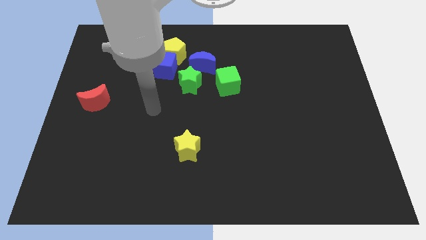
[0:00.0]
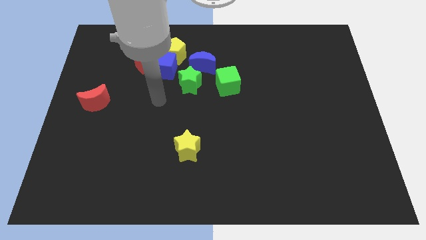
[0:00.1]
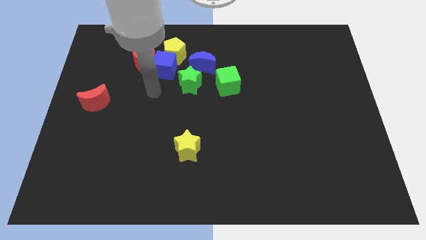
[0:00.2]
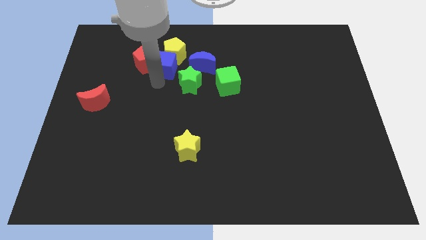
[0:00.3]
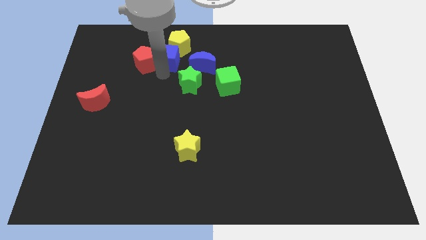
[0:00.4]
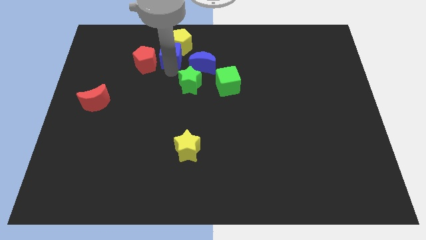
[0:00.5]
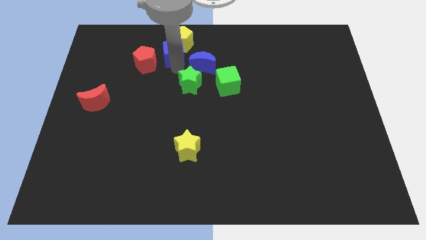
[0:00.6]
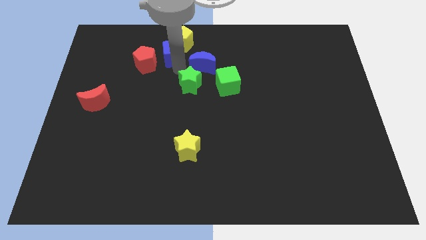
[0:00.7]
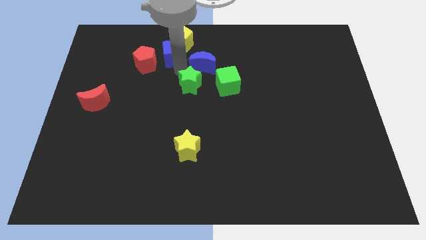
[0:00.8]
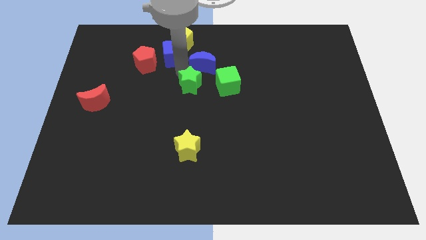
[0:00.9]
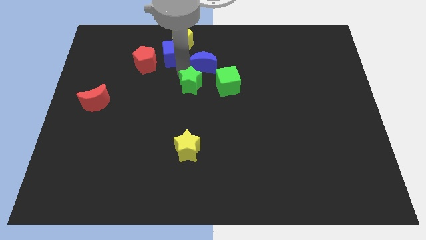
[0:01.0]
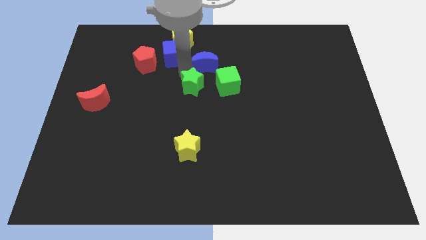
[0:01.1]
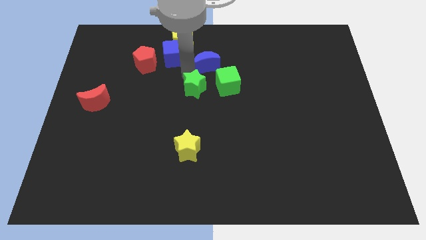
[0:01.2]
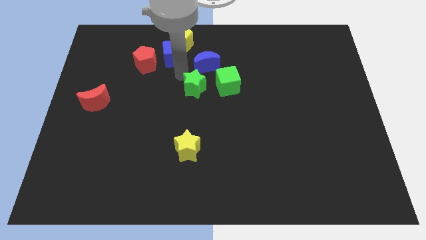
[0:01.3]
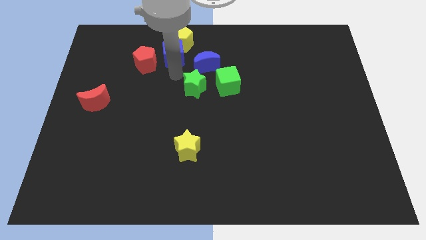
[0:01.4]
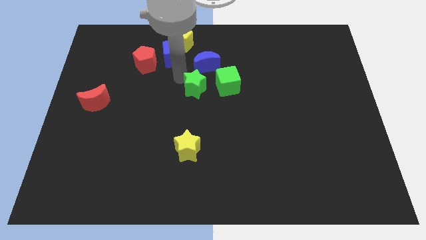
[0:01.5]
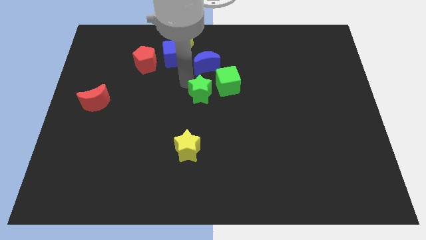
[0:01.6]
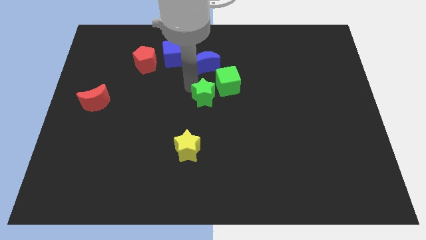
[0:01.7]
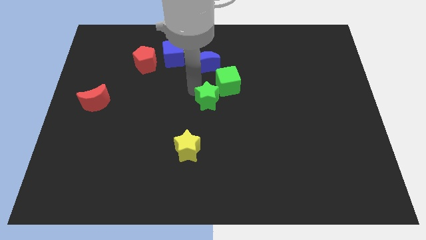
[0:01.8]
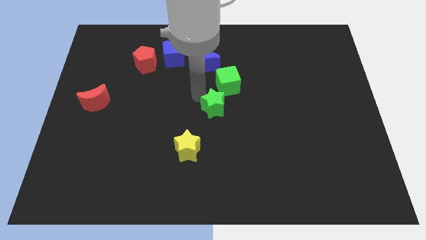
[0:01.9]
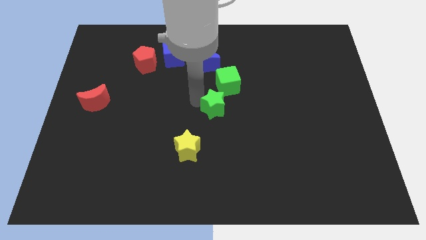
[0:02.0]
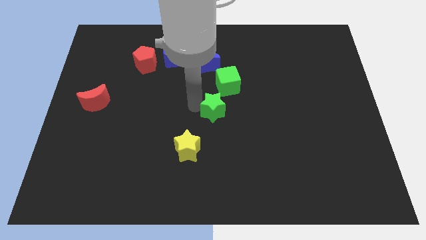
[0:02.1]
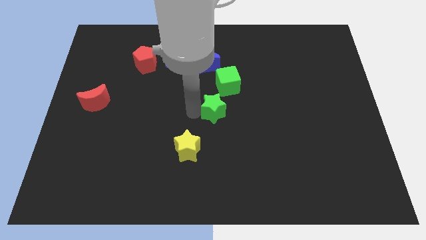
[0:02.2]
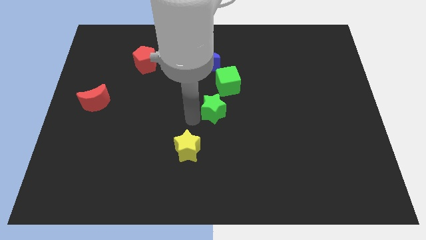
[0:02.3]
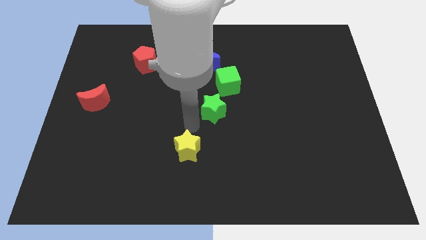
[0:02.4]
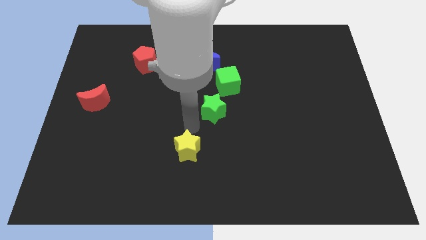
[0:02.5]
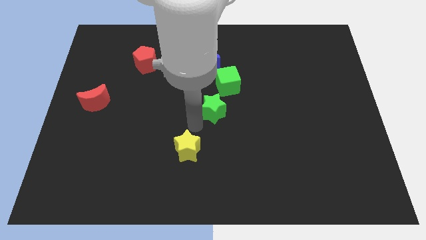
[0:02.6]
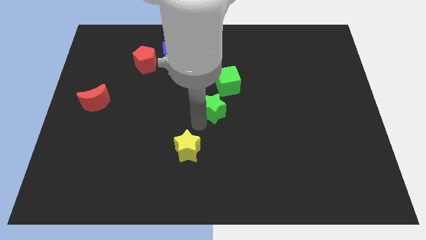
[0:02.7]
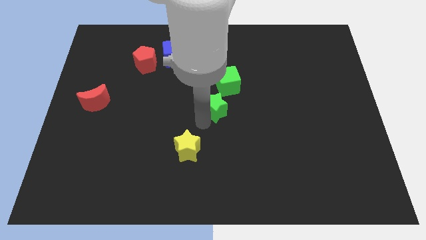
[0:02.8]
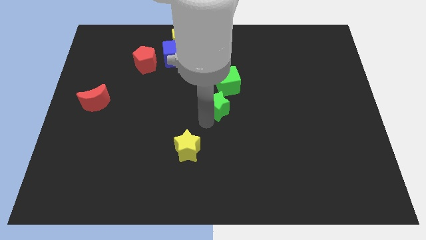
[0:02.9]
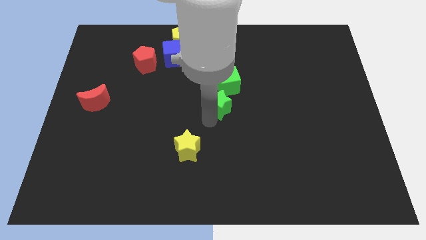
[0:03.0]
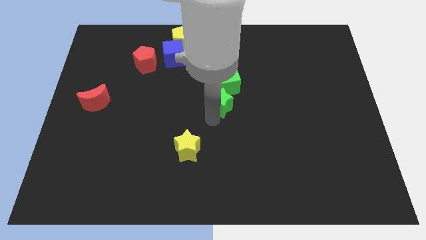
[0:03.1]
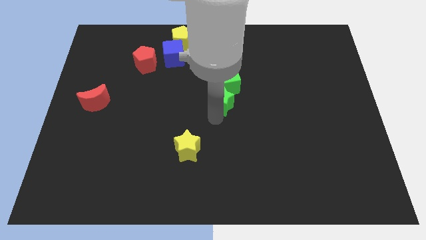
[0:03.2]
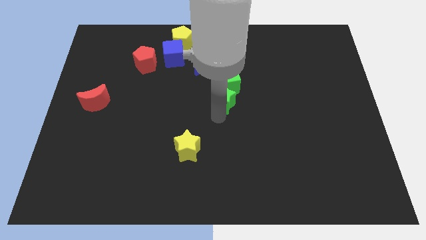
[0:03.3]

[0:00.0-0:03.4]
move the green star to the right slightly

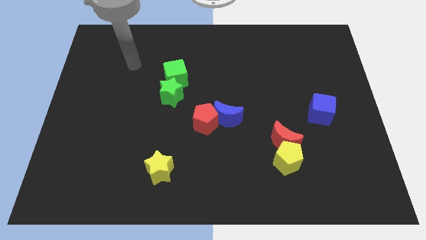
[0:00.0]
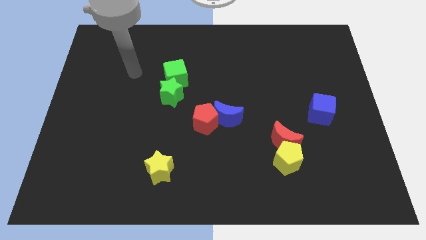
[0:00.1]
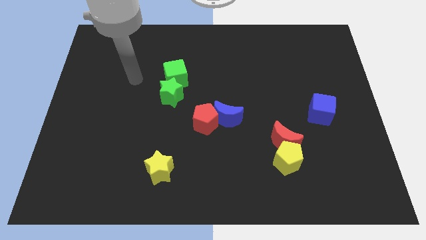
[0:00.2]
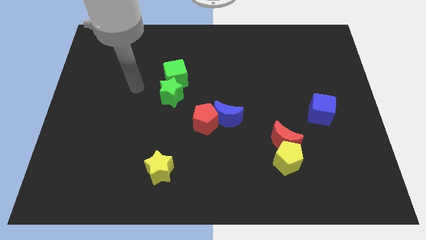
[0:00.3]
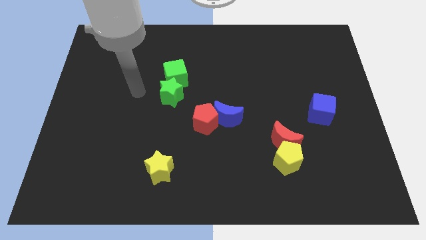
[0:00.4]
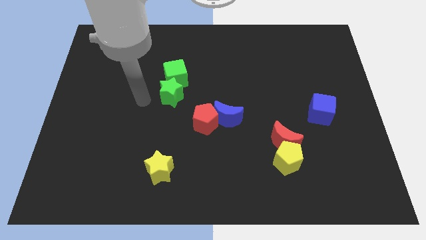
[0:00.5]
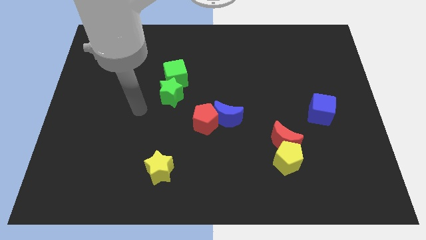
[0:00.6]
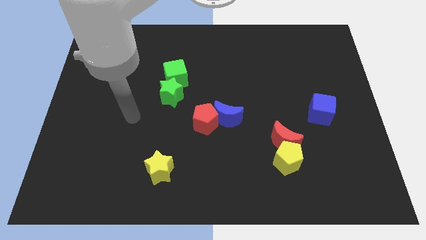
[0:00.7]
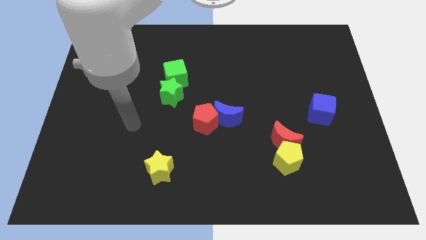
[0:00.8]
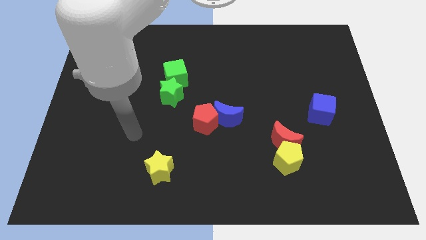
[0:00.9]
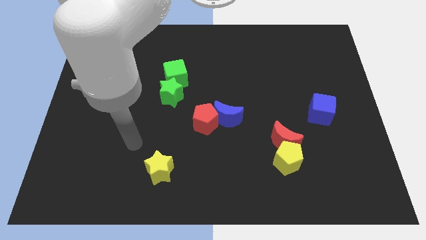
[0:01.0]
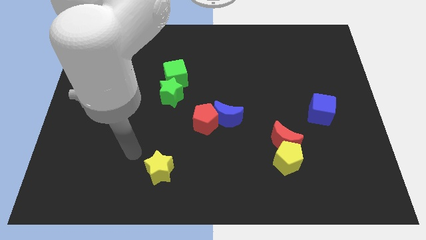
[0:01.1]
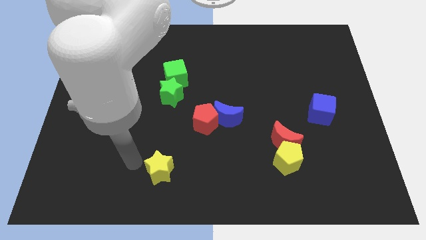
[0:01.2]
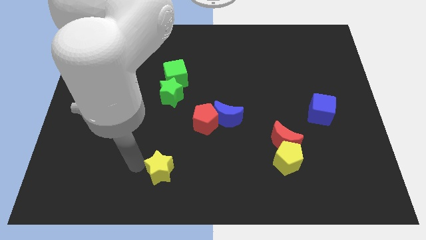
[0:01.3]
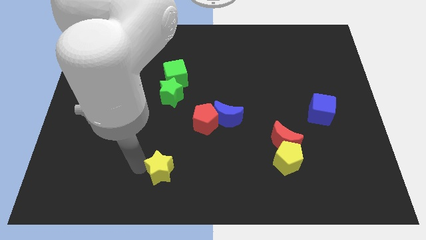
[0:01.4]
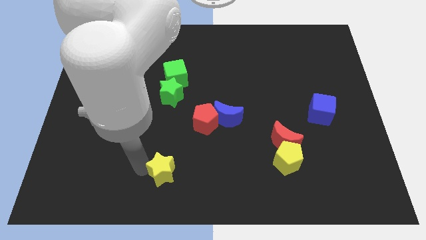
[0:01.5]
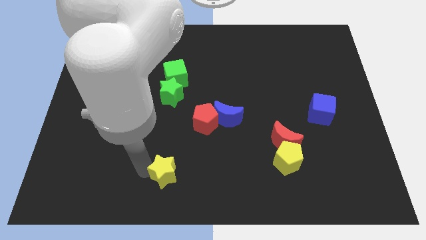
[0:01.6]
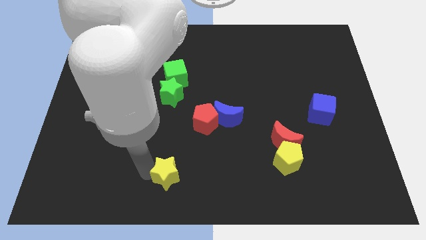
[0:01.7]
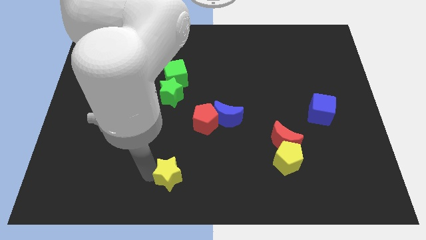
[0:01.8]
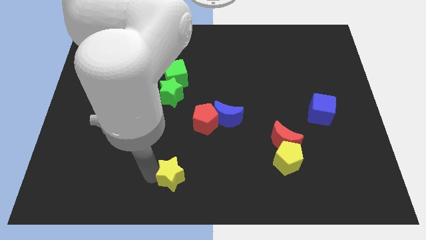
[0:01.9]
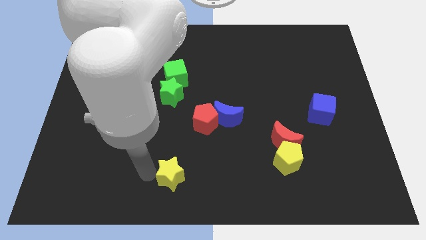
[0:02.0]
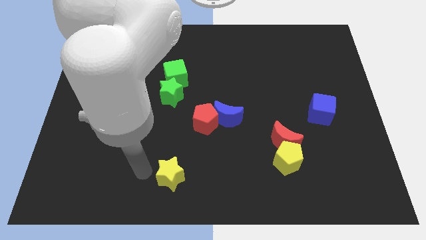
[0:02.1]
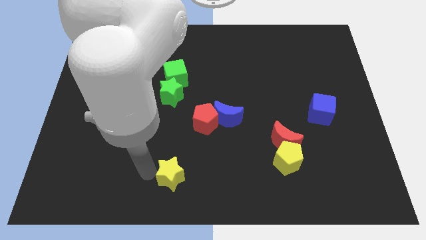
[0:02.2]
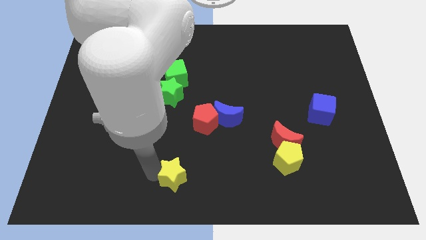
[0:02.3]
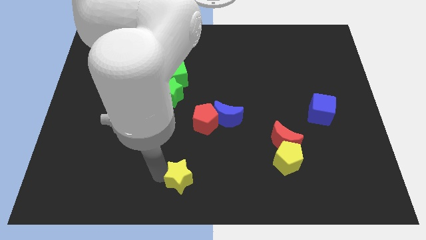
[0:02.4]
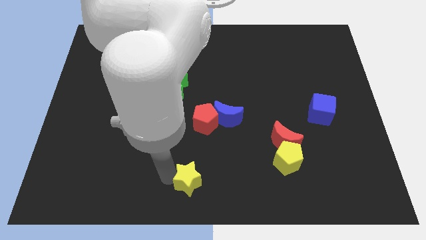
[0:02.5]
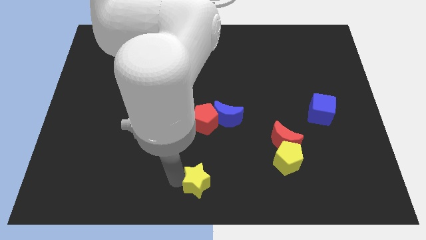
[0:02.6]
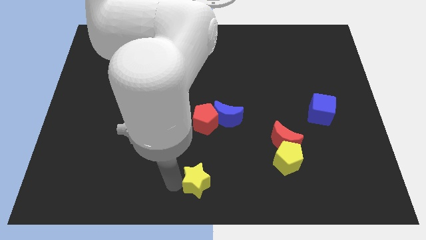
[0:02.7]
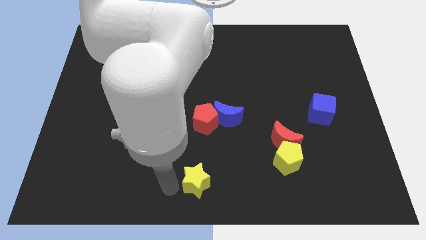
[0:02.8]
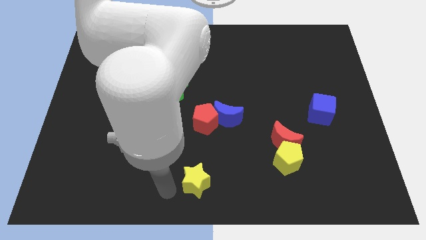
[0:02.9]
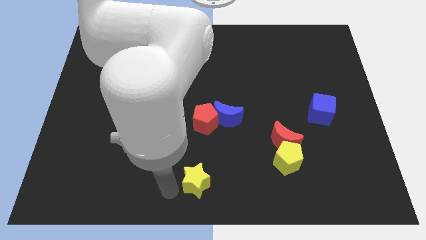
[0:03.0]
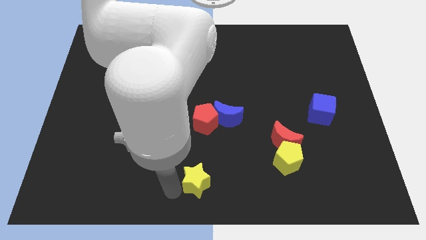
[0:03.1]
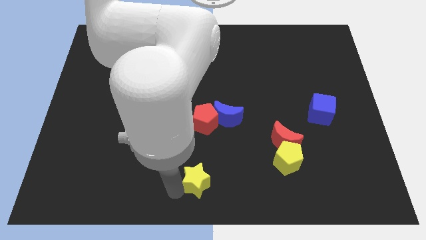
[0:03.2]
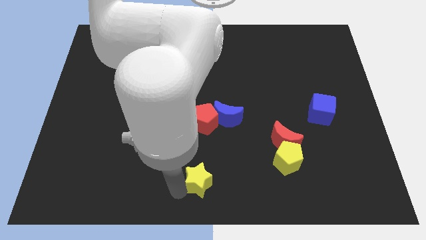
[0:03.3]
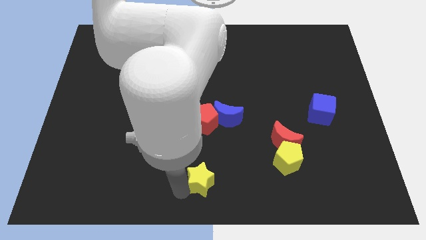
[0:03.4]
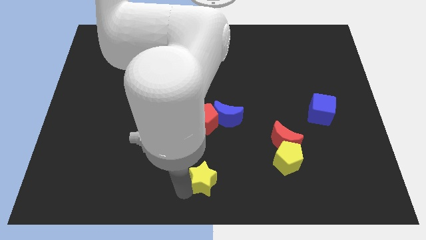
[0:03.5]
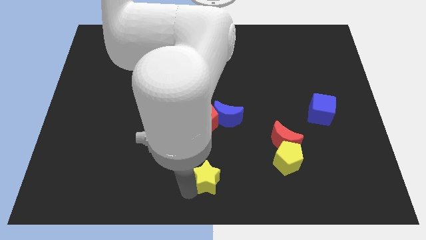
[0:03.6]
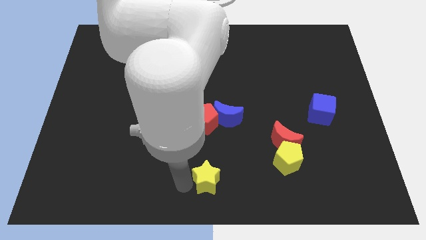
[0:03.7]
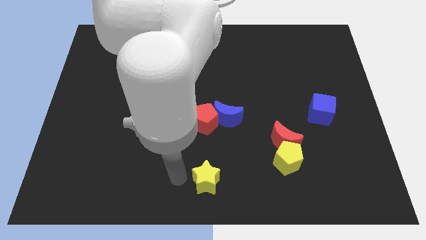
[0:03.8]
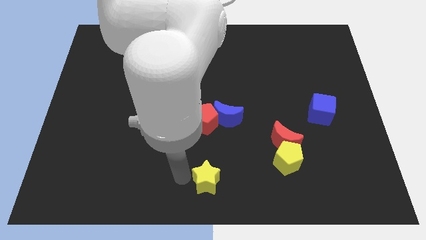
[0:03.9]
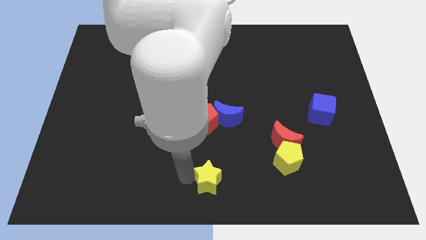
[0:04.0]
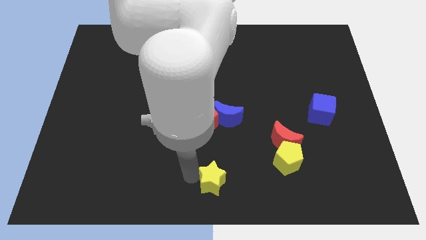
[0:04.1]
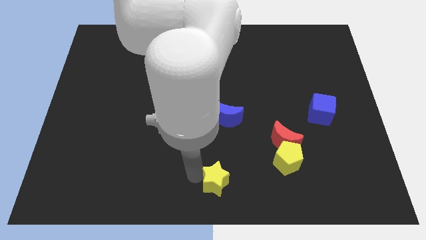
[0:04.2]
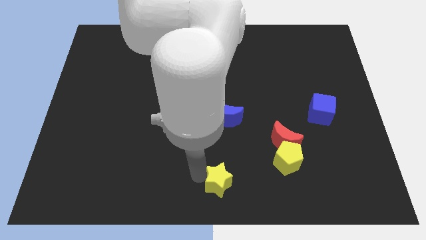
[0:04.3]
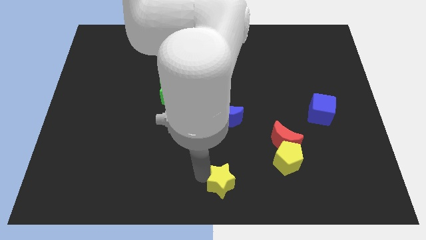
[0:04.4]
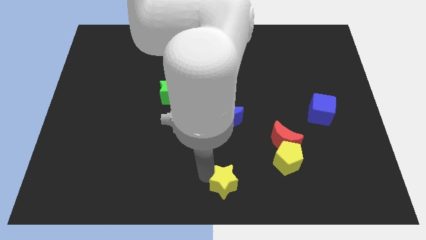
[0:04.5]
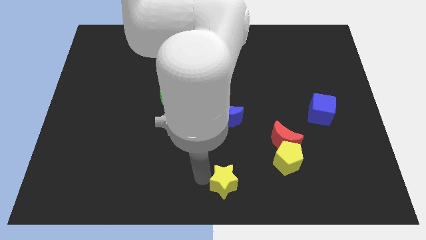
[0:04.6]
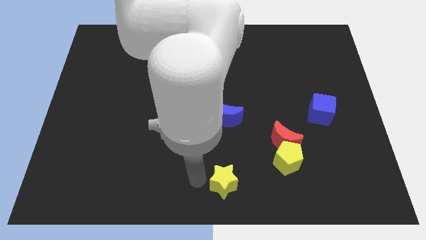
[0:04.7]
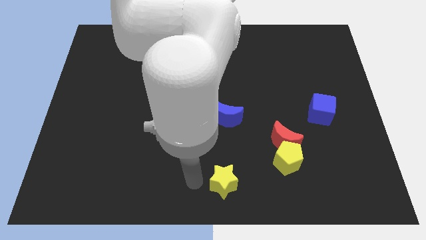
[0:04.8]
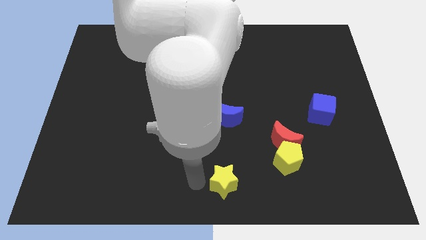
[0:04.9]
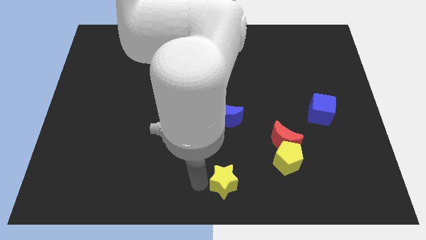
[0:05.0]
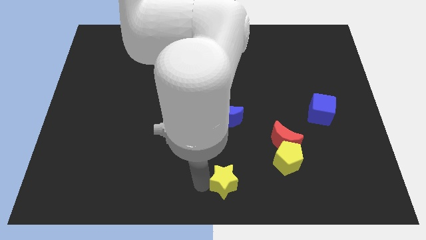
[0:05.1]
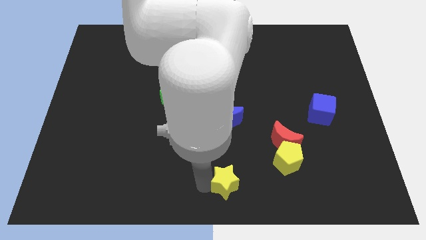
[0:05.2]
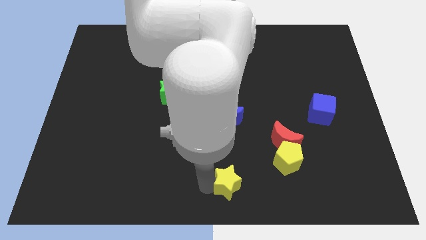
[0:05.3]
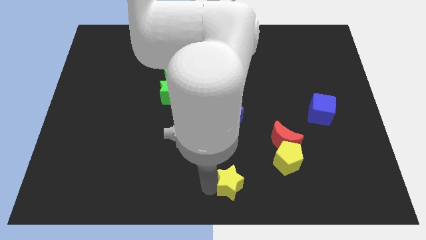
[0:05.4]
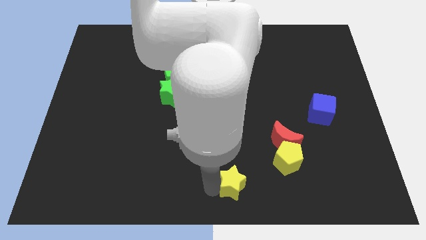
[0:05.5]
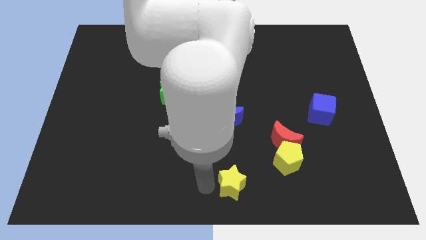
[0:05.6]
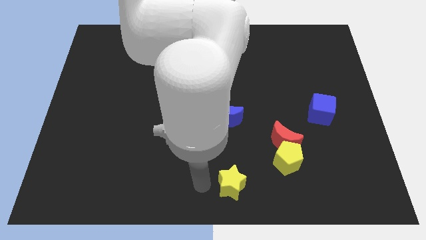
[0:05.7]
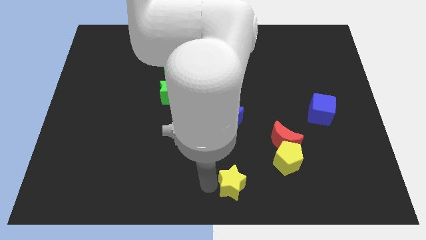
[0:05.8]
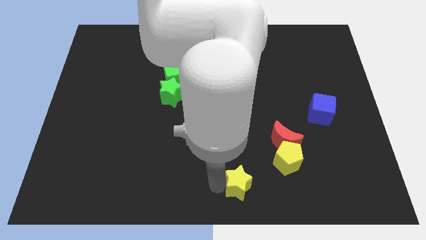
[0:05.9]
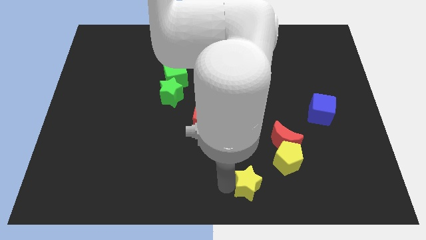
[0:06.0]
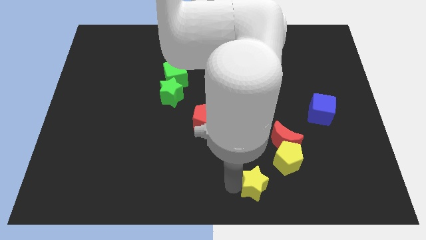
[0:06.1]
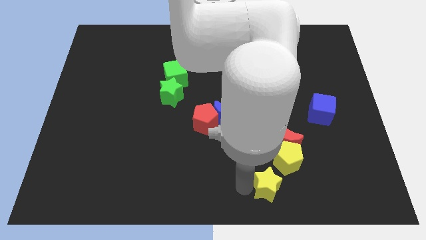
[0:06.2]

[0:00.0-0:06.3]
slide the yellow star to the right
